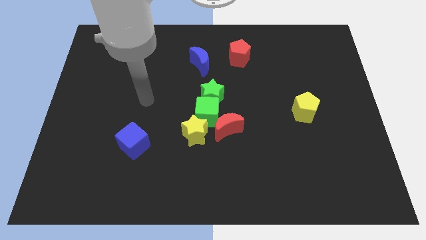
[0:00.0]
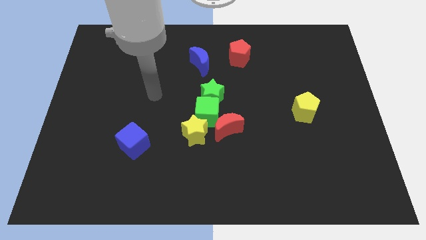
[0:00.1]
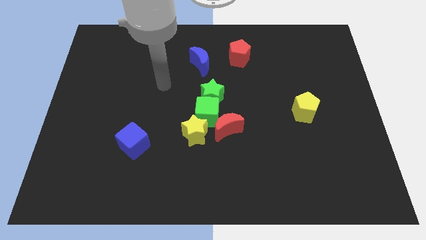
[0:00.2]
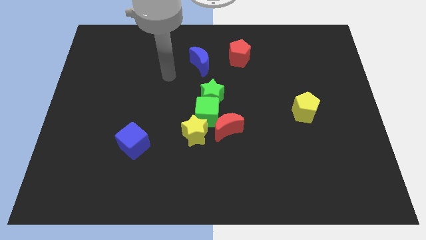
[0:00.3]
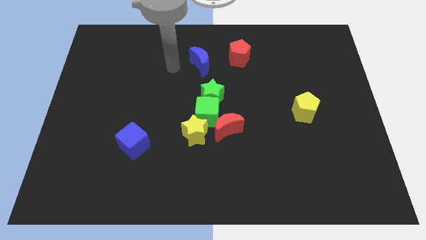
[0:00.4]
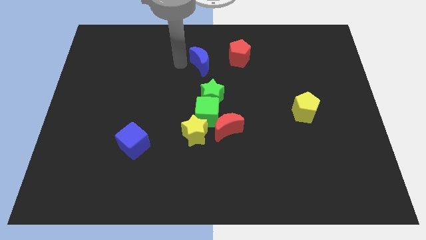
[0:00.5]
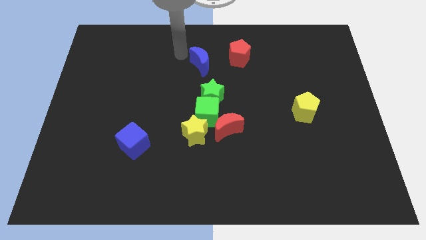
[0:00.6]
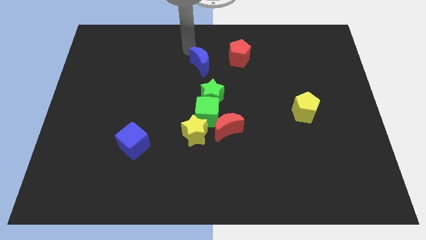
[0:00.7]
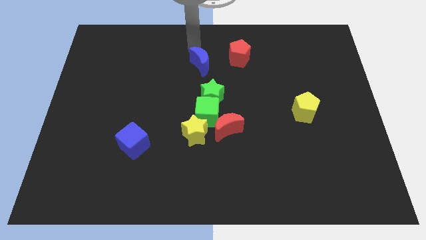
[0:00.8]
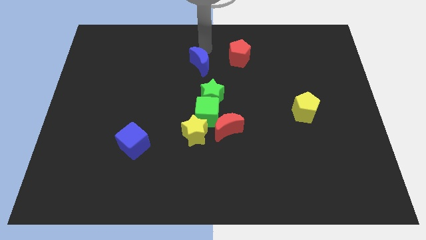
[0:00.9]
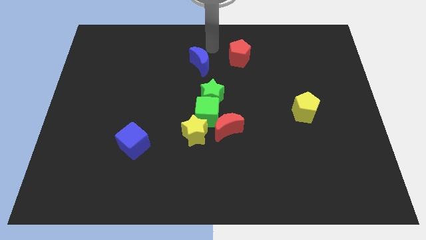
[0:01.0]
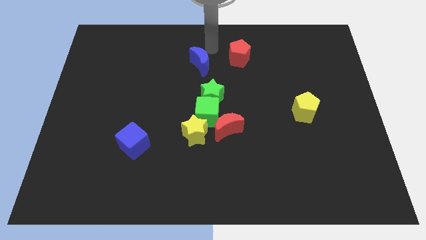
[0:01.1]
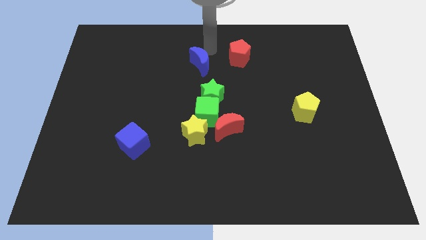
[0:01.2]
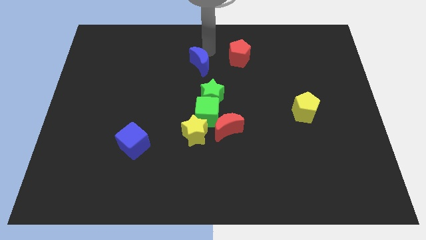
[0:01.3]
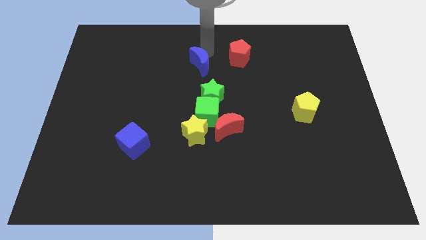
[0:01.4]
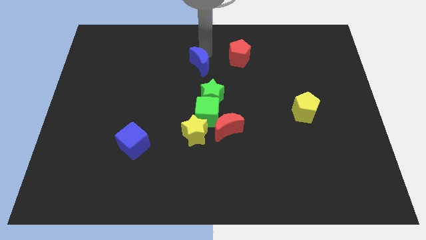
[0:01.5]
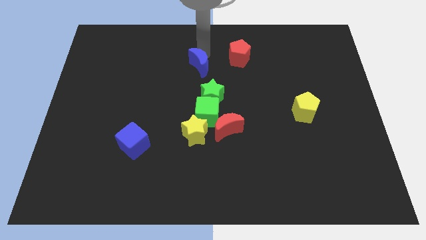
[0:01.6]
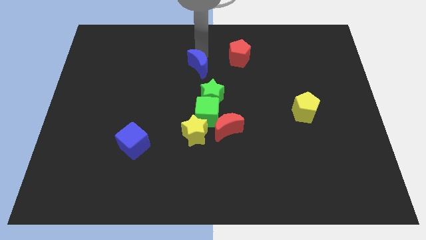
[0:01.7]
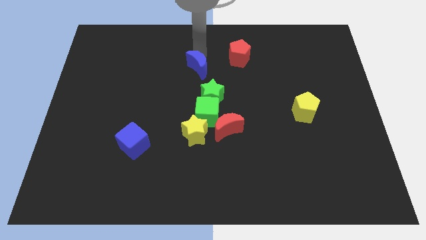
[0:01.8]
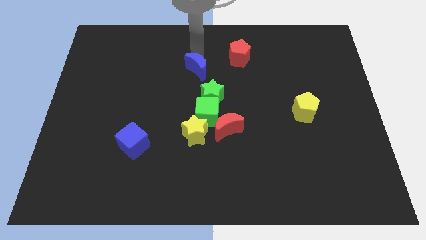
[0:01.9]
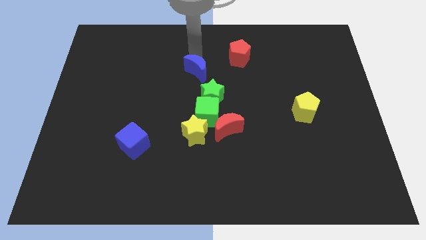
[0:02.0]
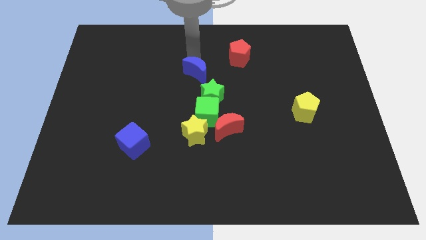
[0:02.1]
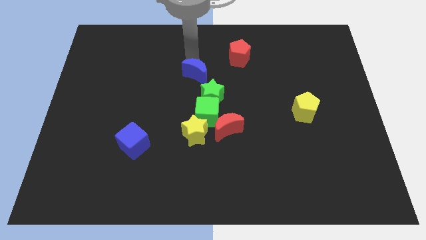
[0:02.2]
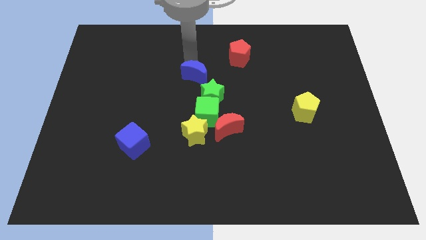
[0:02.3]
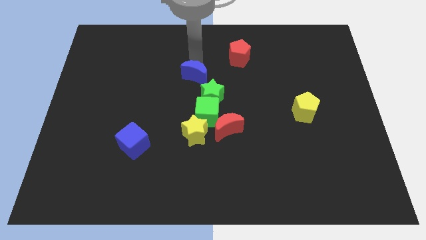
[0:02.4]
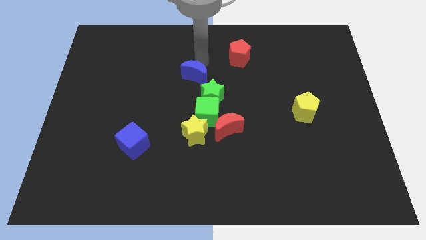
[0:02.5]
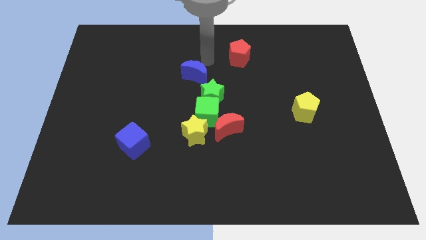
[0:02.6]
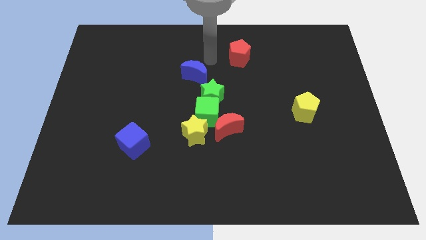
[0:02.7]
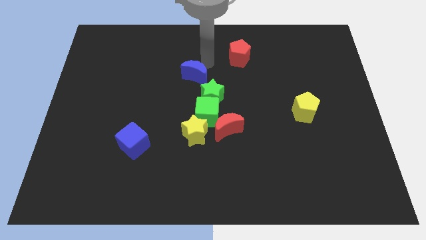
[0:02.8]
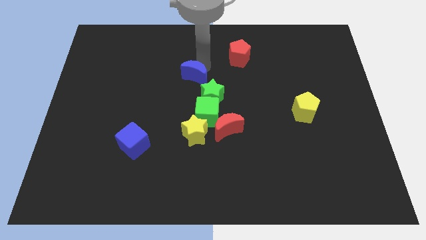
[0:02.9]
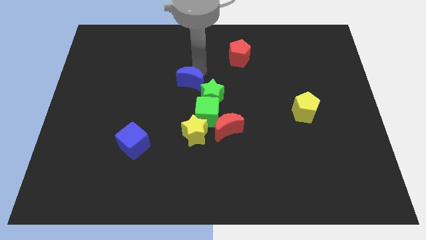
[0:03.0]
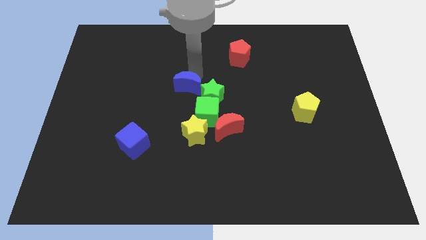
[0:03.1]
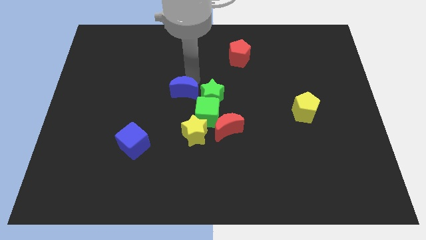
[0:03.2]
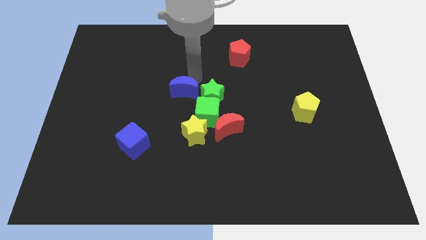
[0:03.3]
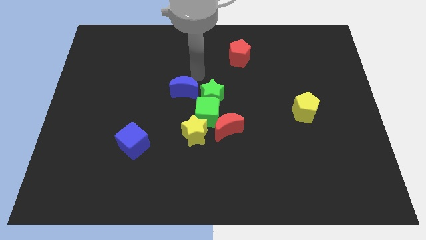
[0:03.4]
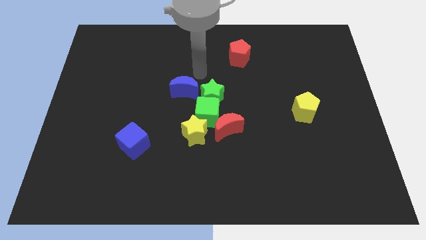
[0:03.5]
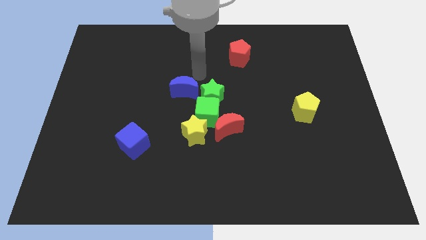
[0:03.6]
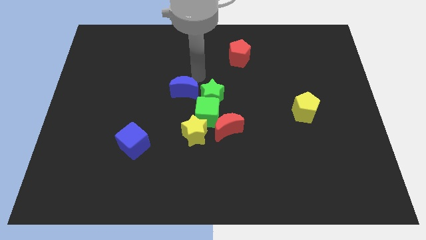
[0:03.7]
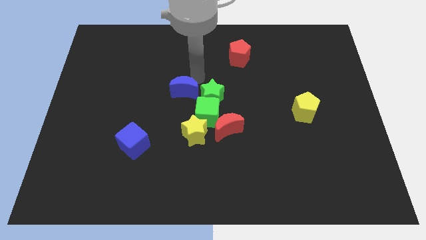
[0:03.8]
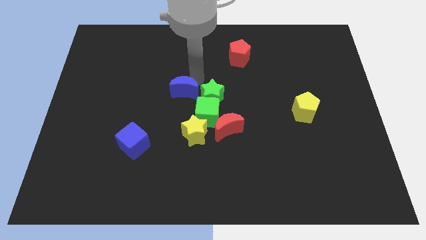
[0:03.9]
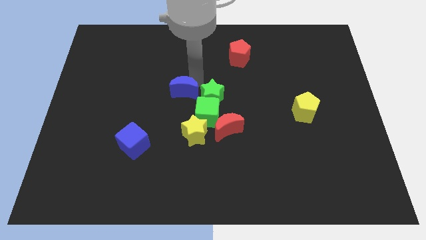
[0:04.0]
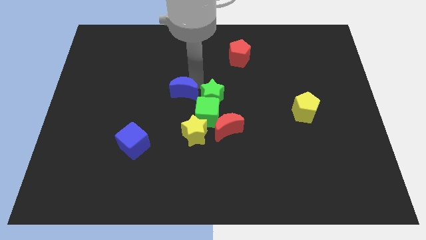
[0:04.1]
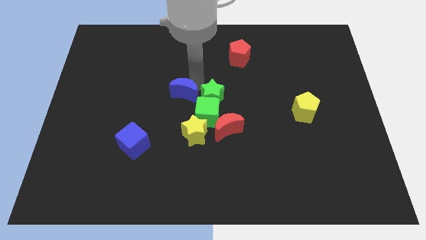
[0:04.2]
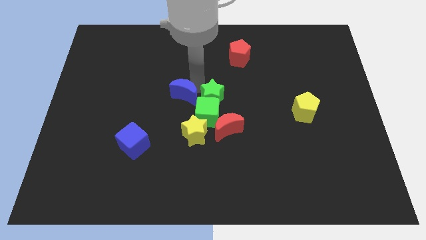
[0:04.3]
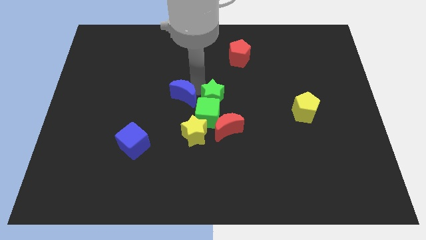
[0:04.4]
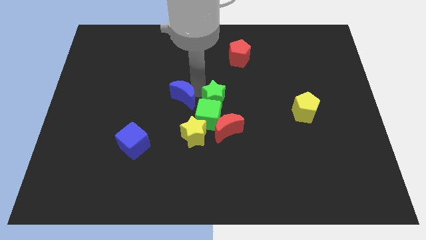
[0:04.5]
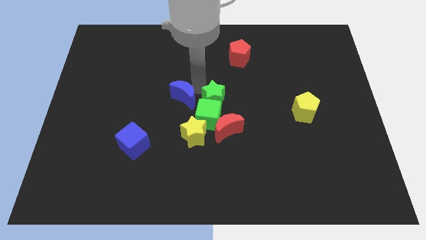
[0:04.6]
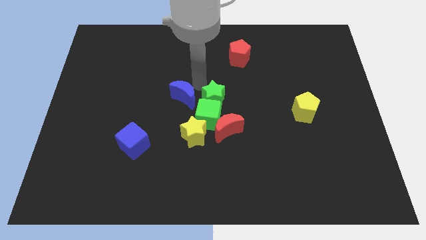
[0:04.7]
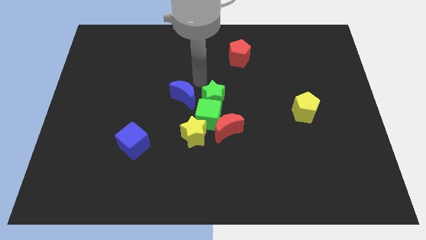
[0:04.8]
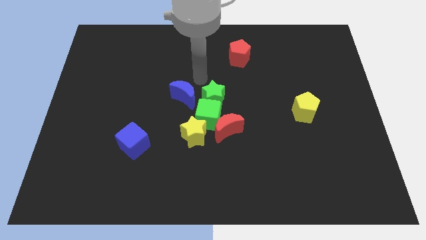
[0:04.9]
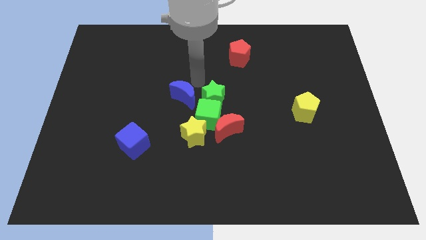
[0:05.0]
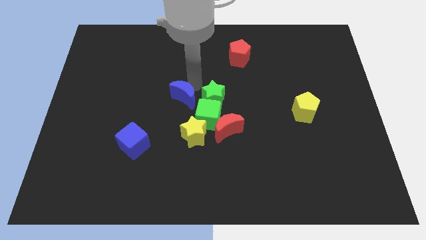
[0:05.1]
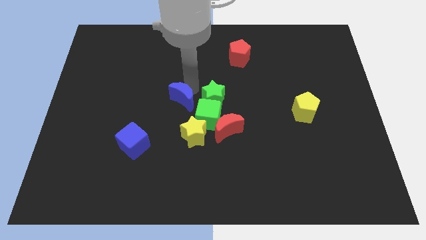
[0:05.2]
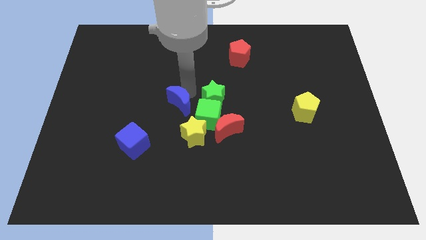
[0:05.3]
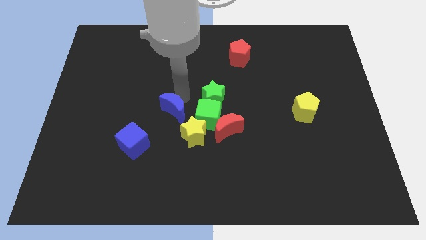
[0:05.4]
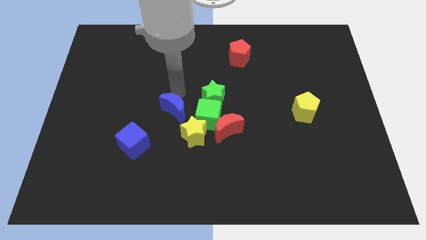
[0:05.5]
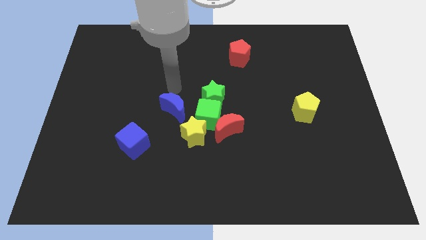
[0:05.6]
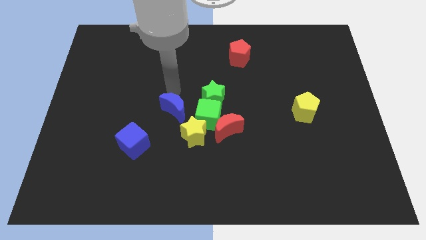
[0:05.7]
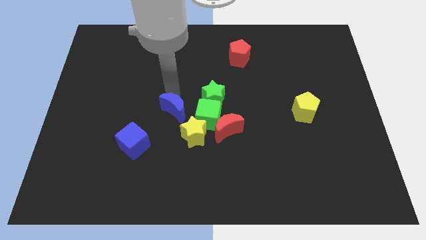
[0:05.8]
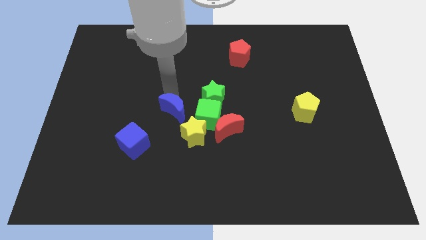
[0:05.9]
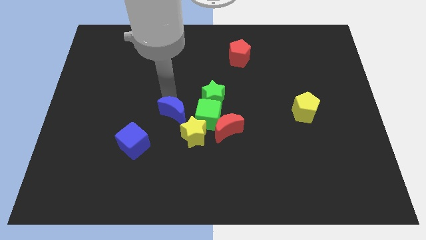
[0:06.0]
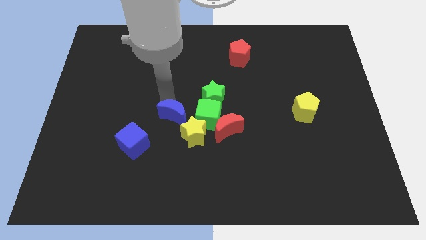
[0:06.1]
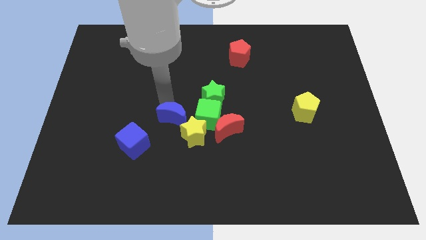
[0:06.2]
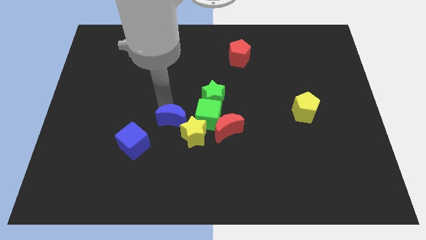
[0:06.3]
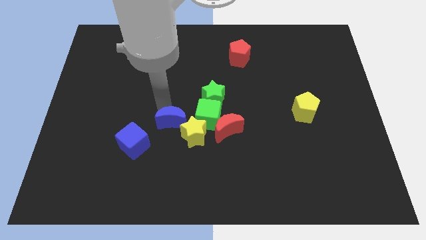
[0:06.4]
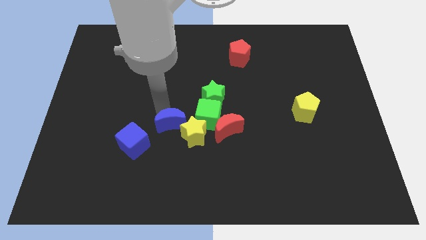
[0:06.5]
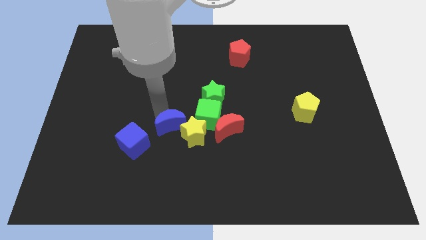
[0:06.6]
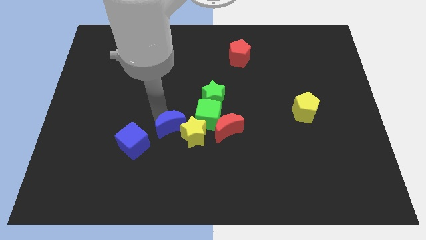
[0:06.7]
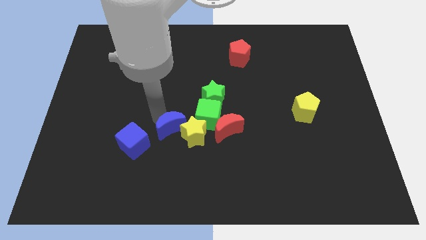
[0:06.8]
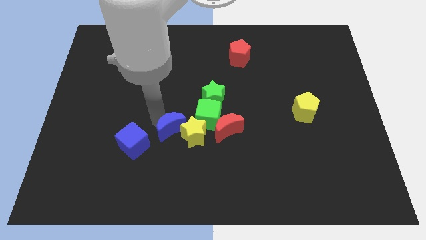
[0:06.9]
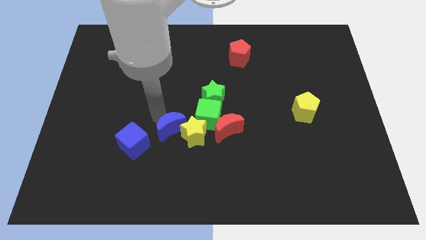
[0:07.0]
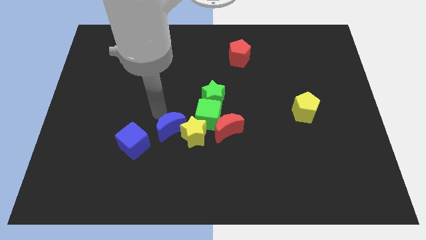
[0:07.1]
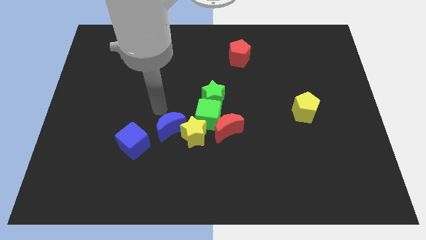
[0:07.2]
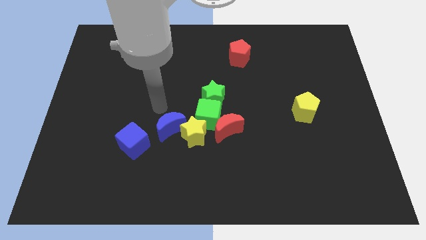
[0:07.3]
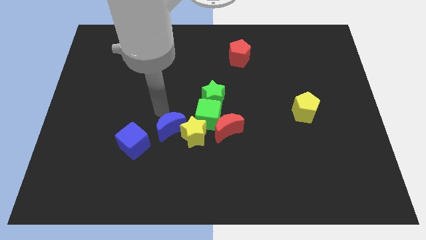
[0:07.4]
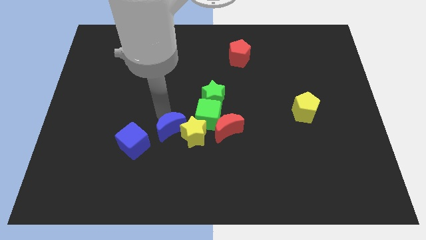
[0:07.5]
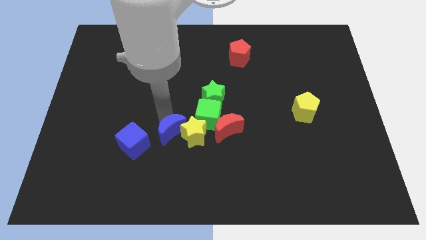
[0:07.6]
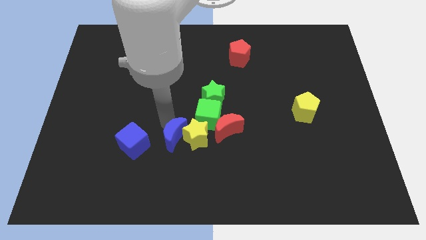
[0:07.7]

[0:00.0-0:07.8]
slide the blue moon downwards

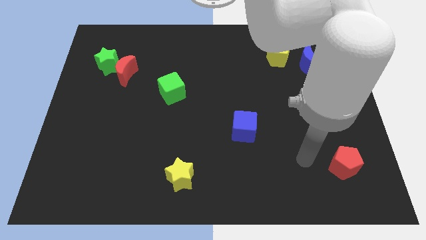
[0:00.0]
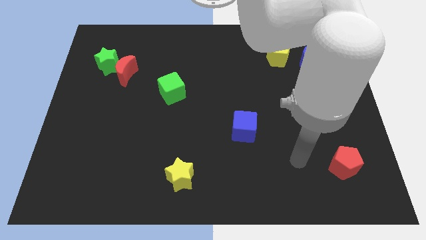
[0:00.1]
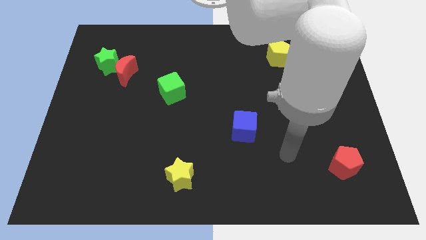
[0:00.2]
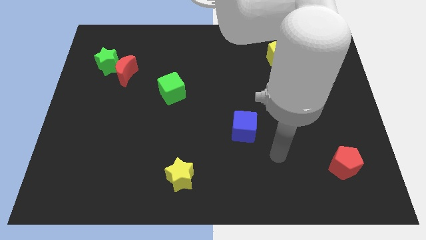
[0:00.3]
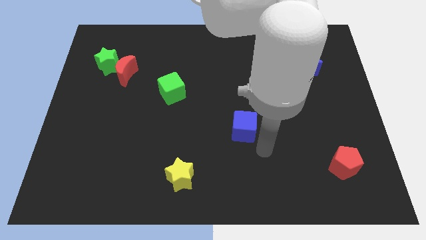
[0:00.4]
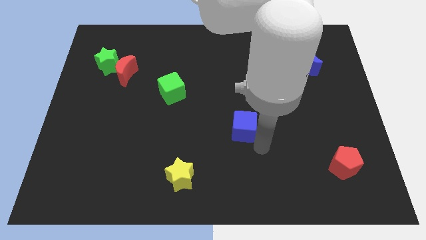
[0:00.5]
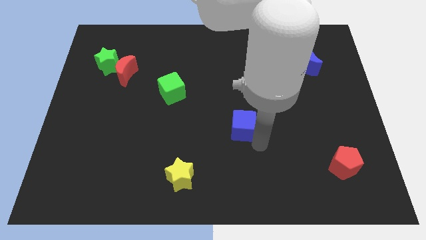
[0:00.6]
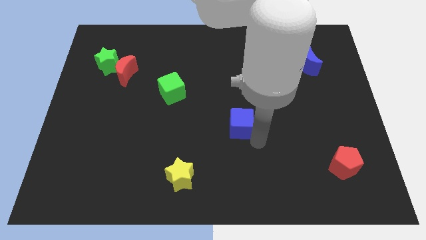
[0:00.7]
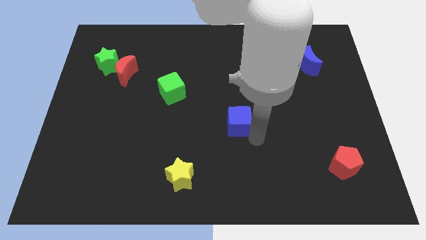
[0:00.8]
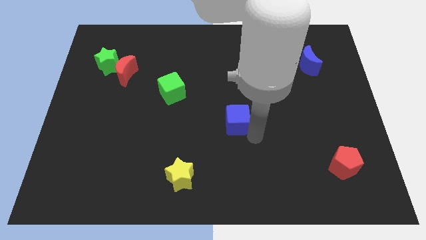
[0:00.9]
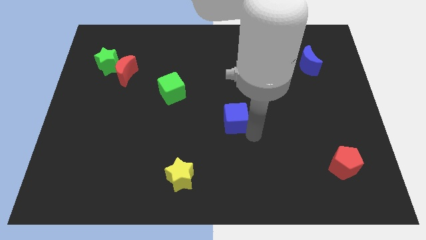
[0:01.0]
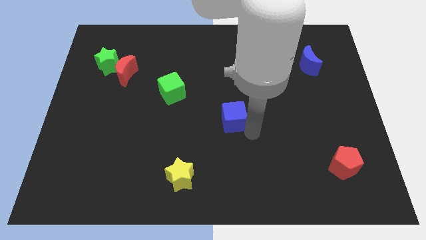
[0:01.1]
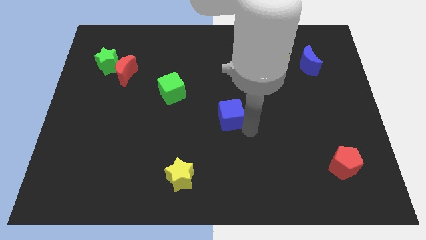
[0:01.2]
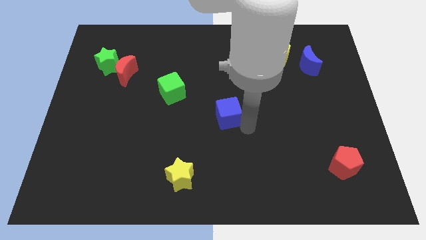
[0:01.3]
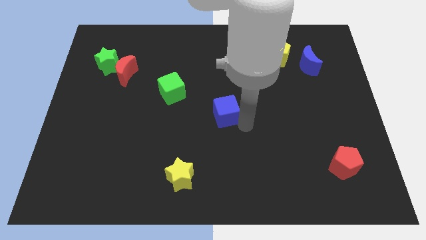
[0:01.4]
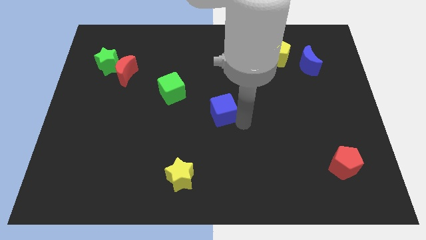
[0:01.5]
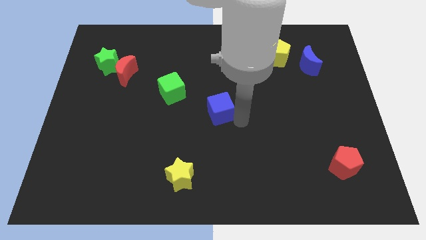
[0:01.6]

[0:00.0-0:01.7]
move the blue cube diagonally upwards and left a little
